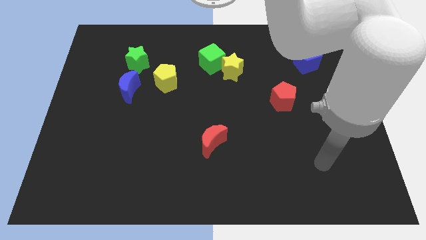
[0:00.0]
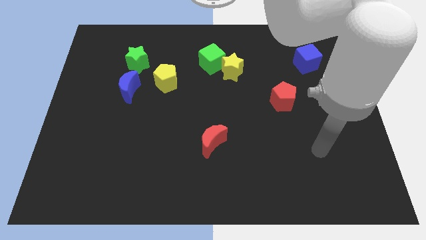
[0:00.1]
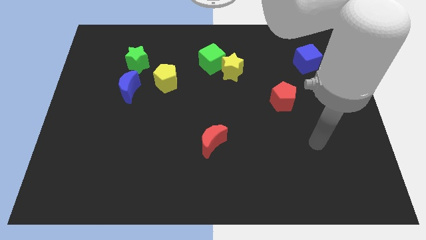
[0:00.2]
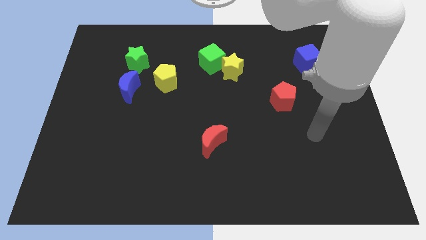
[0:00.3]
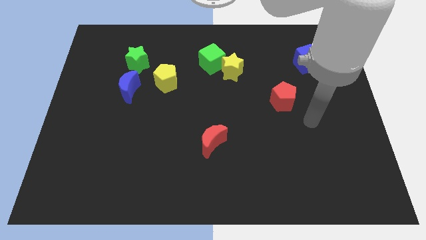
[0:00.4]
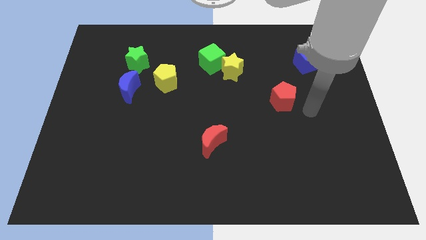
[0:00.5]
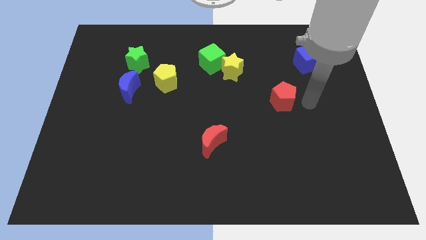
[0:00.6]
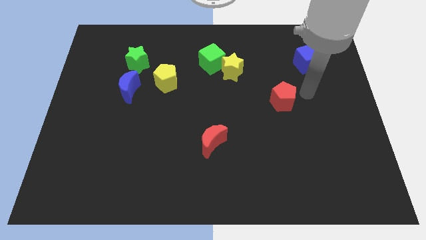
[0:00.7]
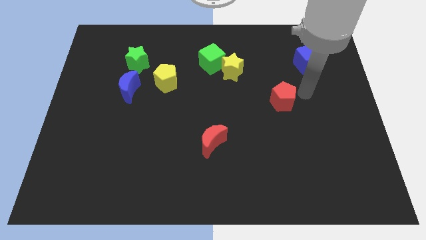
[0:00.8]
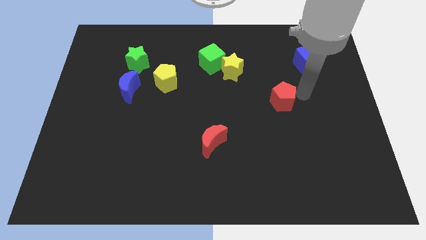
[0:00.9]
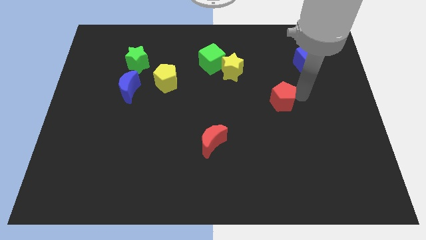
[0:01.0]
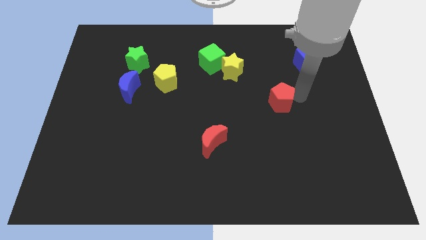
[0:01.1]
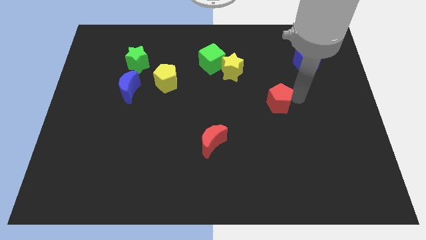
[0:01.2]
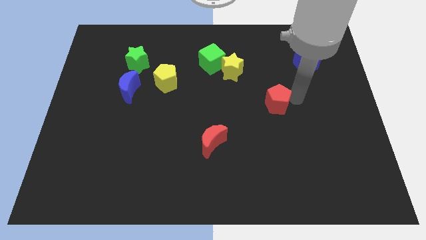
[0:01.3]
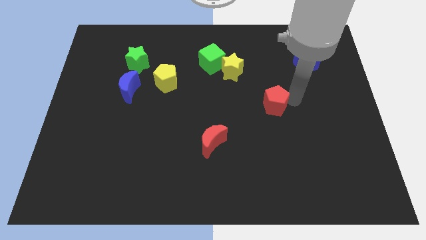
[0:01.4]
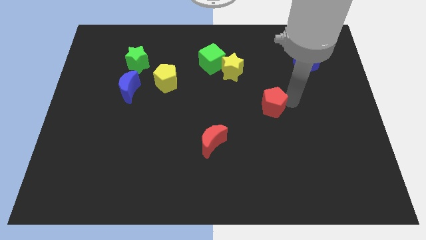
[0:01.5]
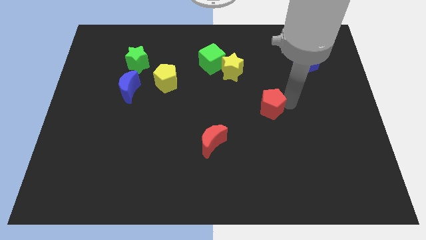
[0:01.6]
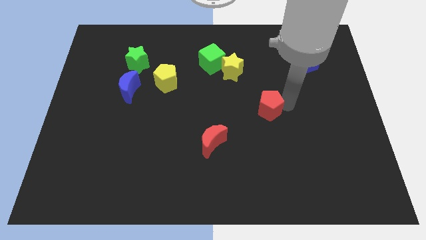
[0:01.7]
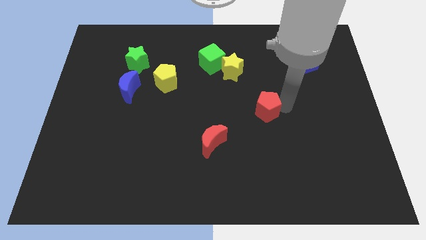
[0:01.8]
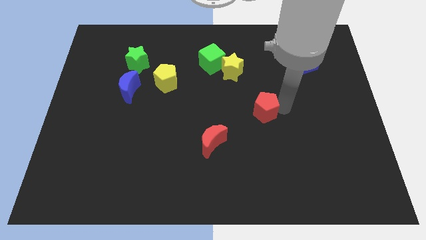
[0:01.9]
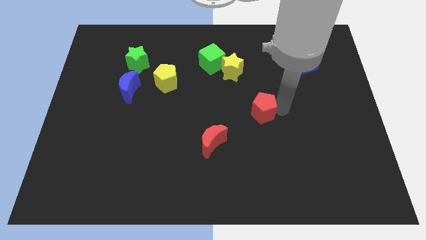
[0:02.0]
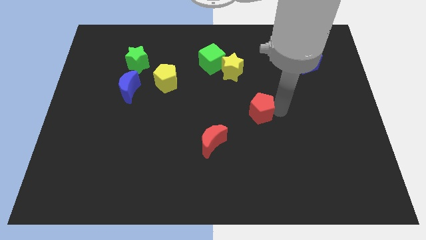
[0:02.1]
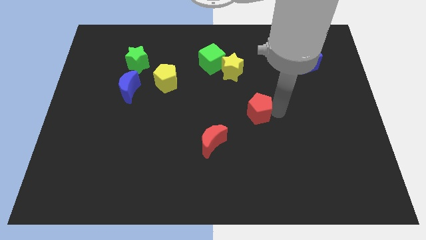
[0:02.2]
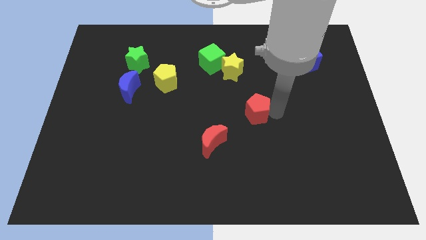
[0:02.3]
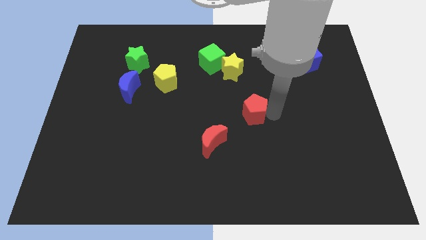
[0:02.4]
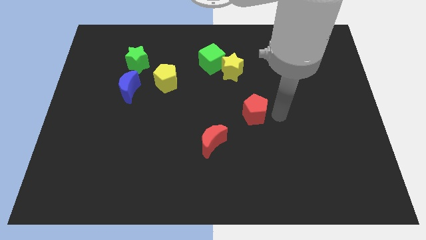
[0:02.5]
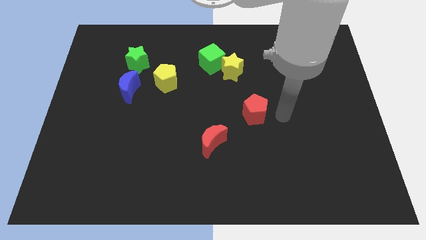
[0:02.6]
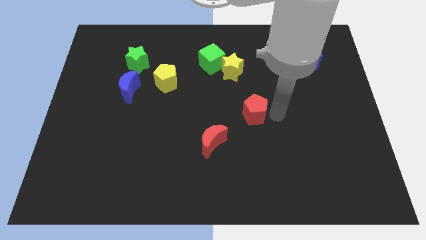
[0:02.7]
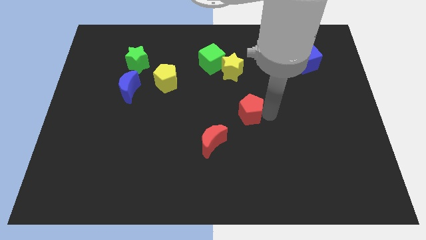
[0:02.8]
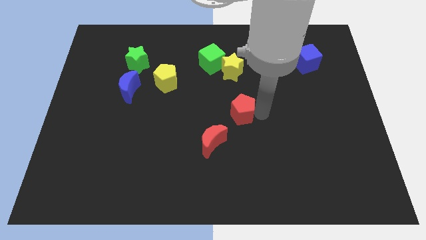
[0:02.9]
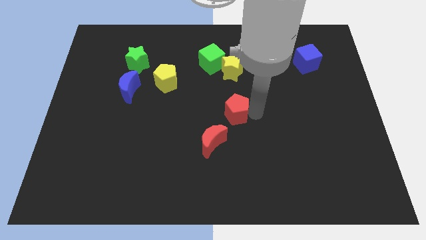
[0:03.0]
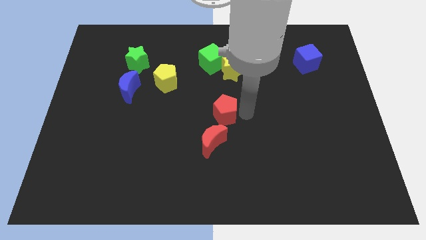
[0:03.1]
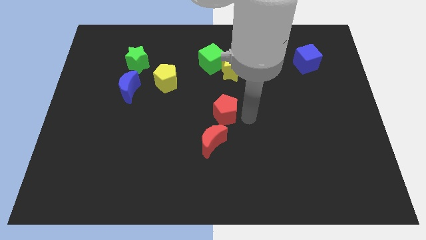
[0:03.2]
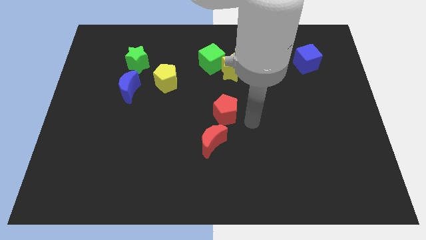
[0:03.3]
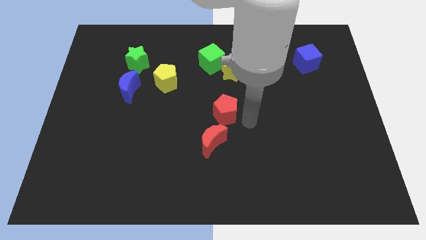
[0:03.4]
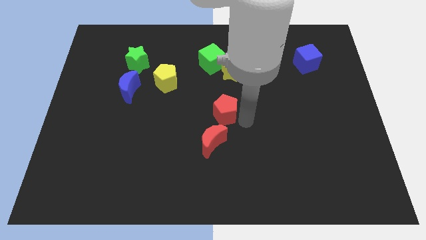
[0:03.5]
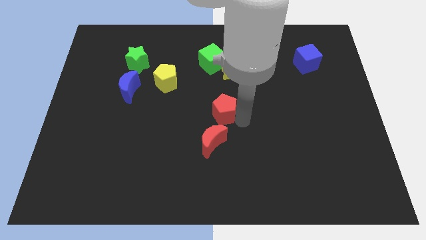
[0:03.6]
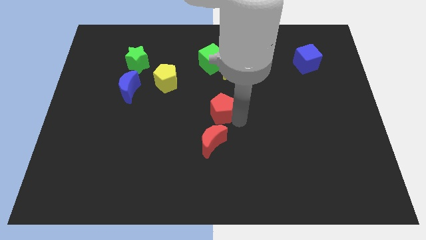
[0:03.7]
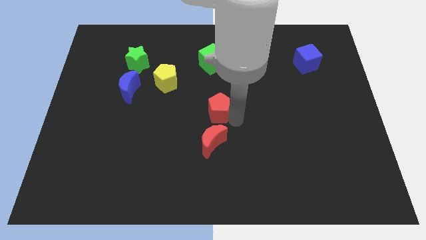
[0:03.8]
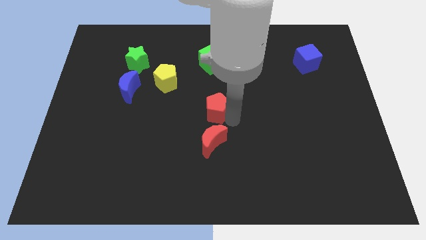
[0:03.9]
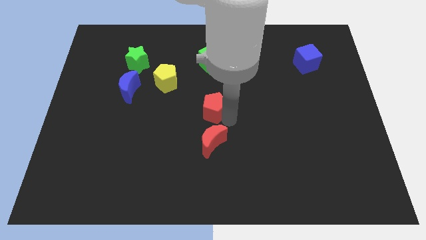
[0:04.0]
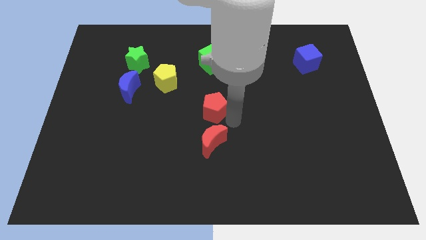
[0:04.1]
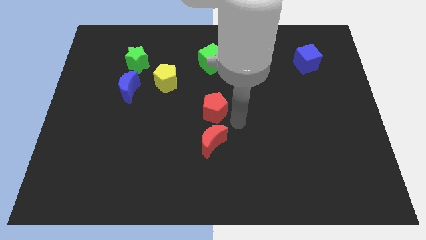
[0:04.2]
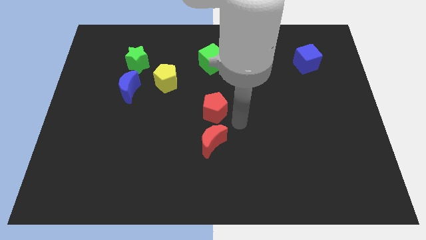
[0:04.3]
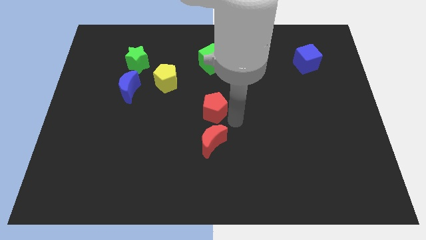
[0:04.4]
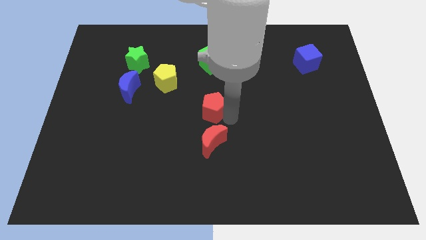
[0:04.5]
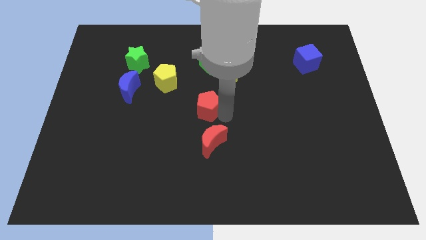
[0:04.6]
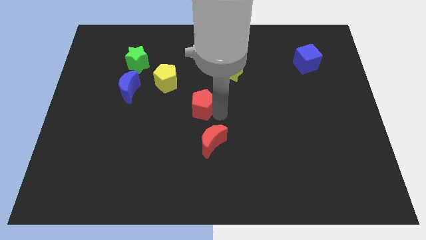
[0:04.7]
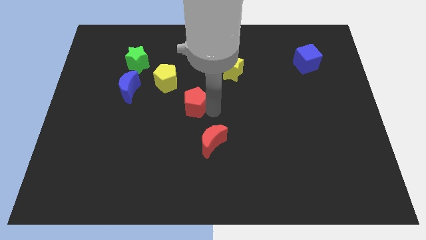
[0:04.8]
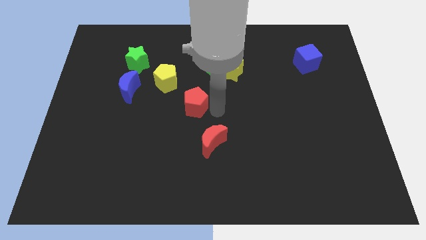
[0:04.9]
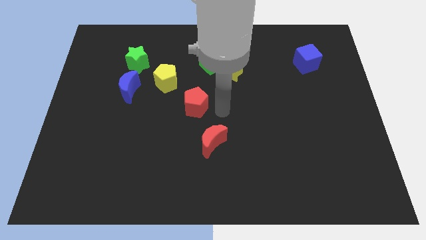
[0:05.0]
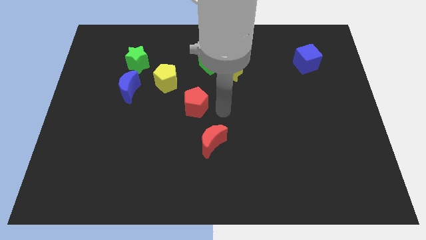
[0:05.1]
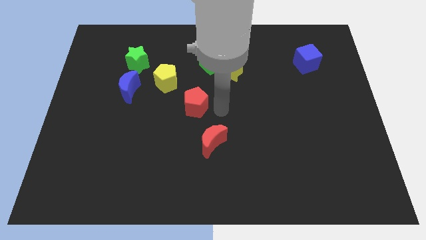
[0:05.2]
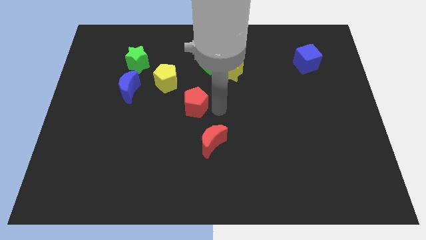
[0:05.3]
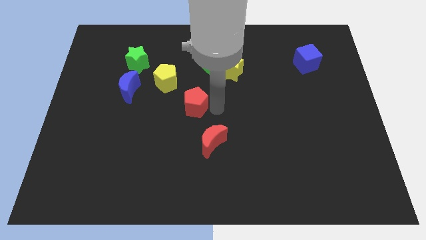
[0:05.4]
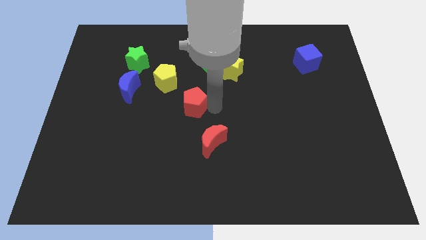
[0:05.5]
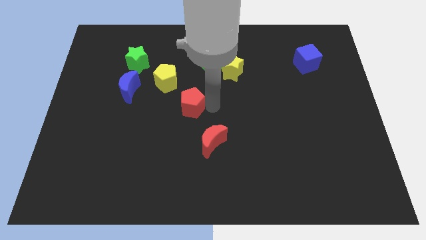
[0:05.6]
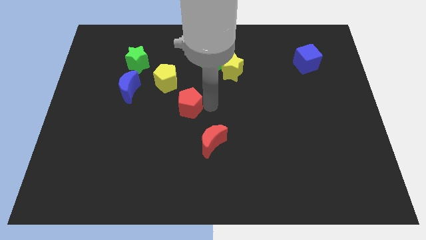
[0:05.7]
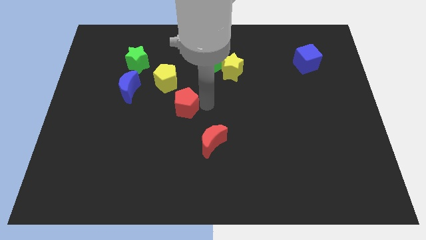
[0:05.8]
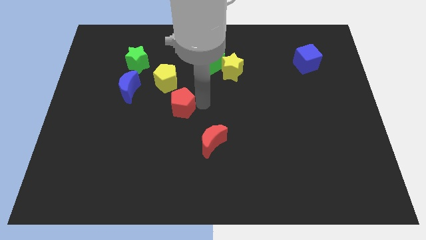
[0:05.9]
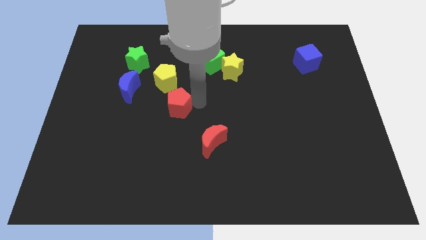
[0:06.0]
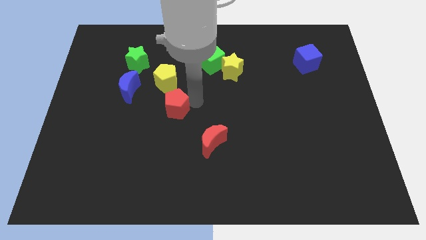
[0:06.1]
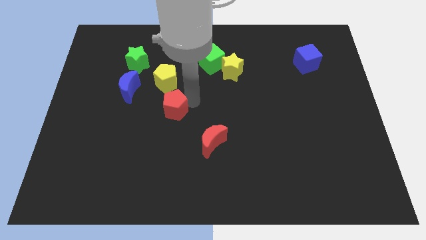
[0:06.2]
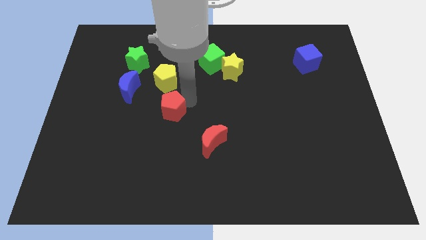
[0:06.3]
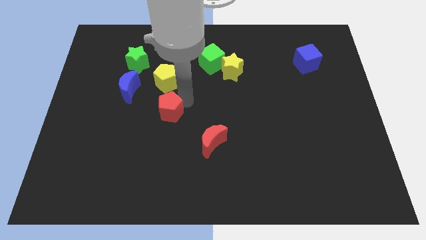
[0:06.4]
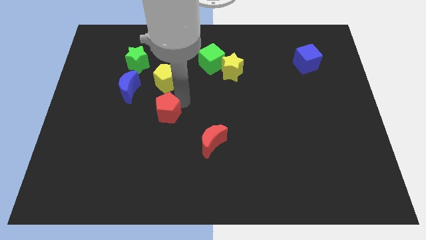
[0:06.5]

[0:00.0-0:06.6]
move the red pentagon to the bottom right of the blue moon
